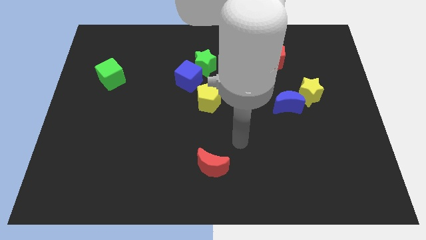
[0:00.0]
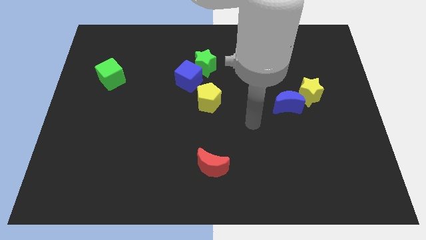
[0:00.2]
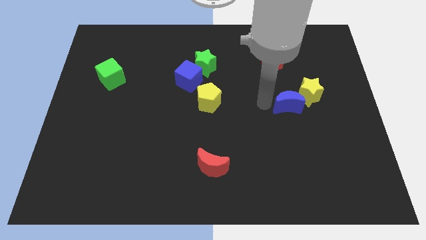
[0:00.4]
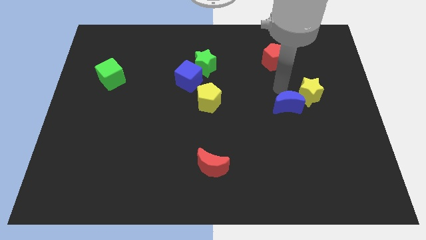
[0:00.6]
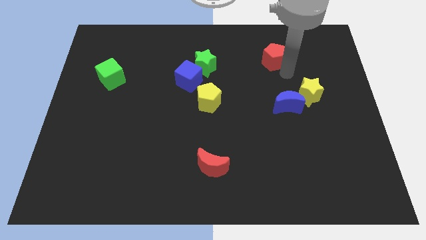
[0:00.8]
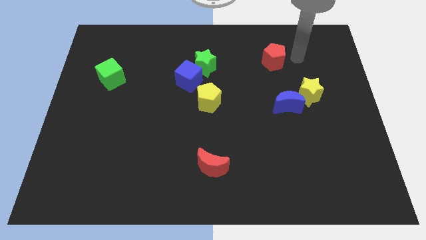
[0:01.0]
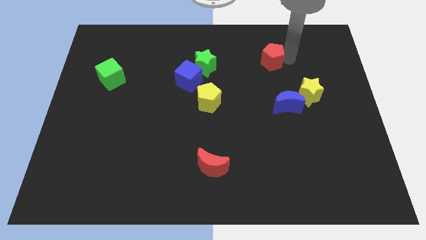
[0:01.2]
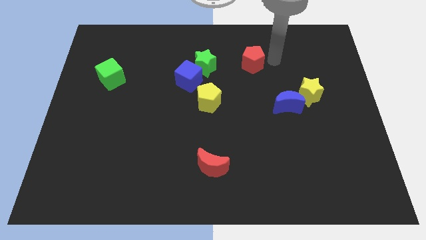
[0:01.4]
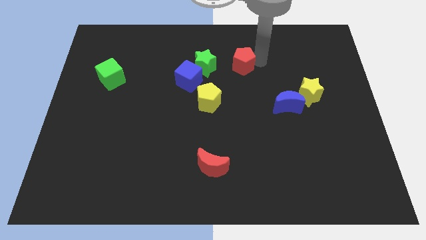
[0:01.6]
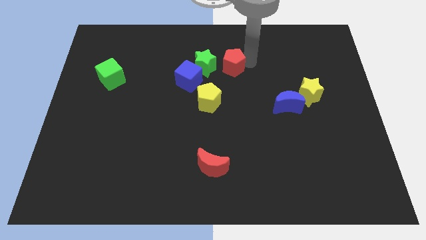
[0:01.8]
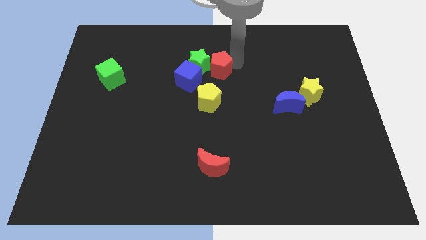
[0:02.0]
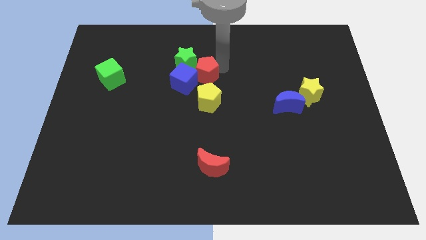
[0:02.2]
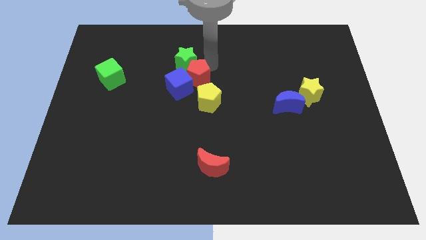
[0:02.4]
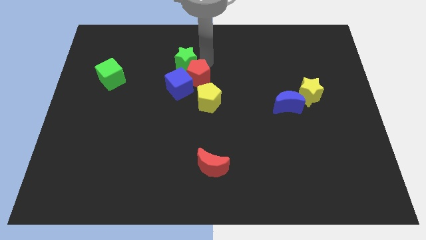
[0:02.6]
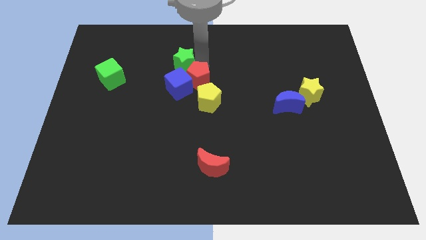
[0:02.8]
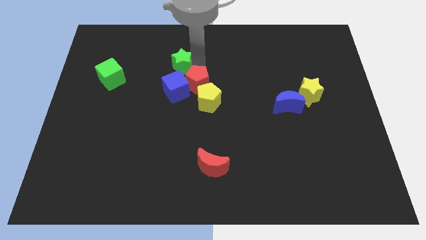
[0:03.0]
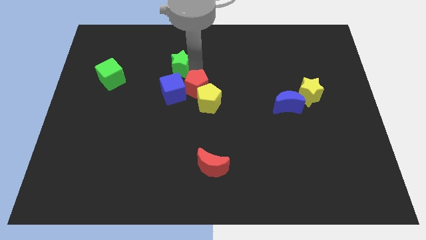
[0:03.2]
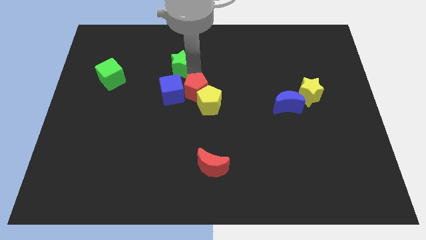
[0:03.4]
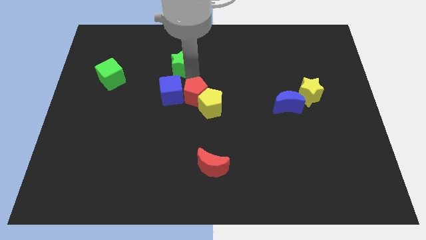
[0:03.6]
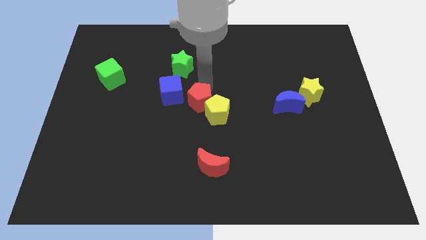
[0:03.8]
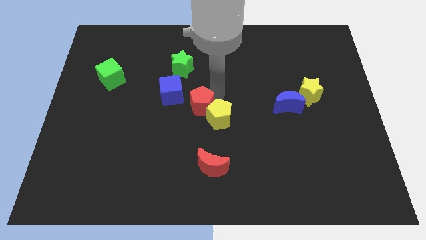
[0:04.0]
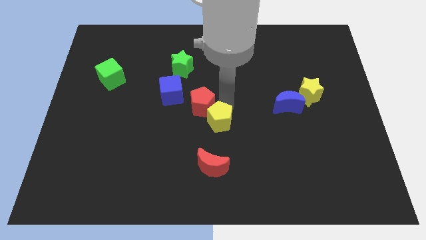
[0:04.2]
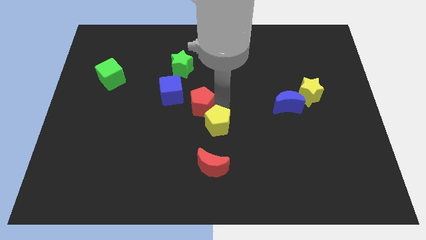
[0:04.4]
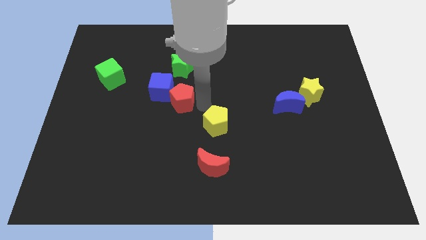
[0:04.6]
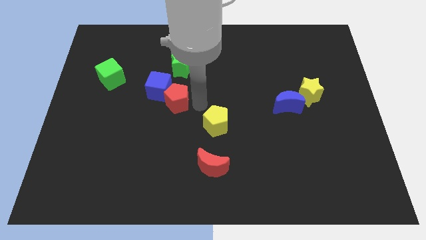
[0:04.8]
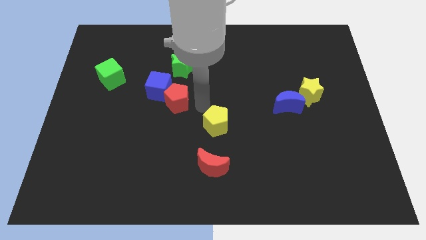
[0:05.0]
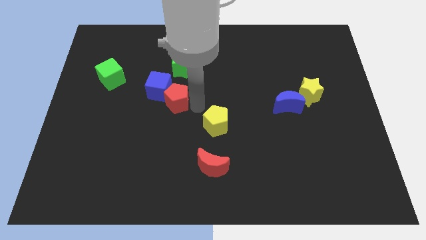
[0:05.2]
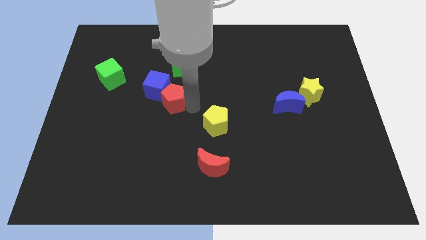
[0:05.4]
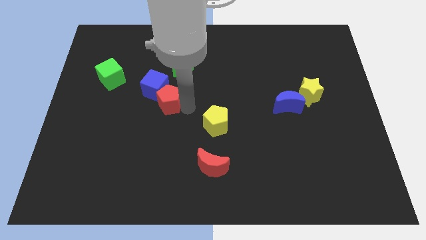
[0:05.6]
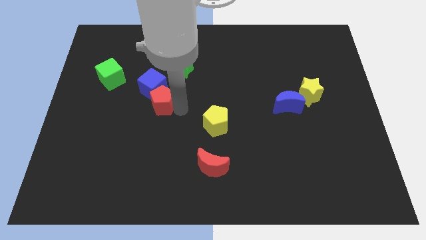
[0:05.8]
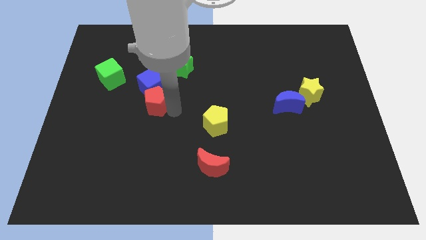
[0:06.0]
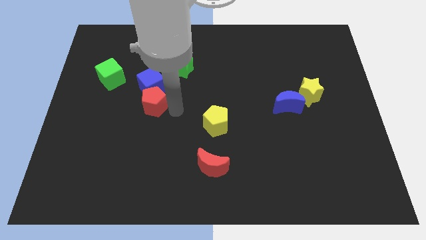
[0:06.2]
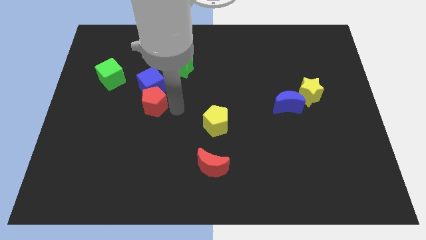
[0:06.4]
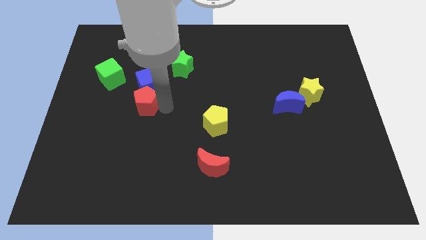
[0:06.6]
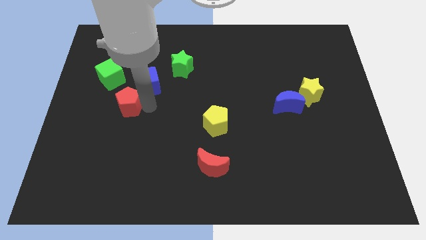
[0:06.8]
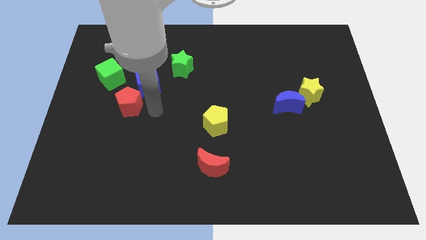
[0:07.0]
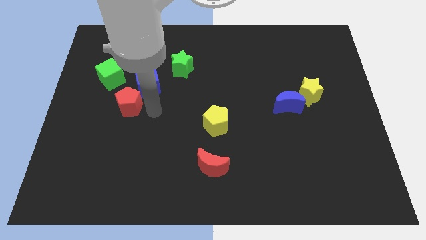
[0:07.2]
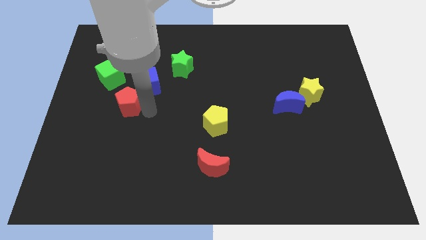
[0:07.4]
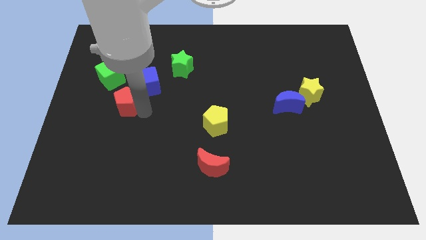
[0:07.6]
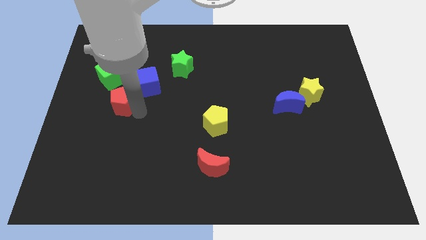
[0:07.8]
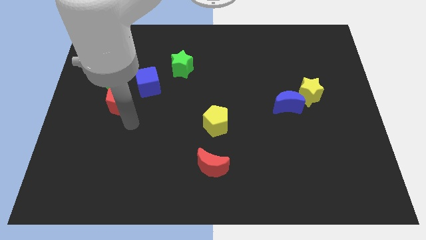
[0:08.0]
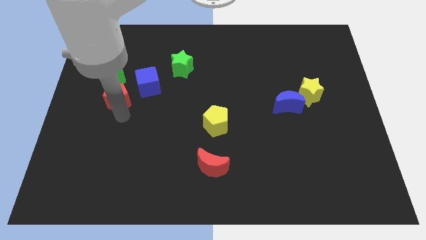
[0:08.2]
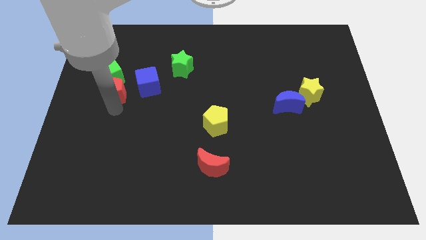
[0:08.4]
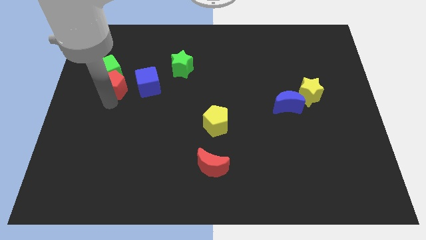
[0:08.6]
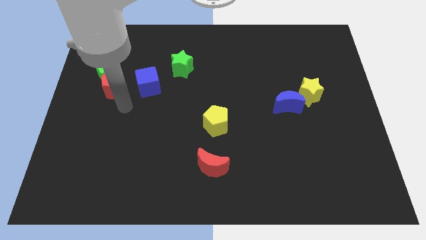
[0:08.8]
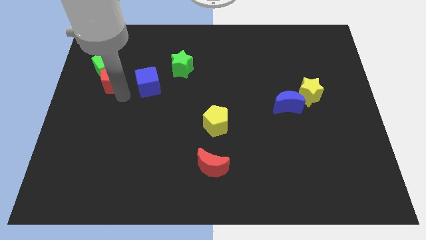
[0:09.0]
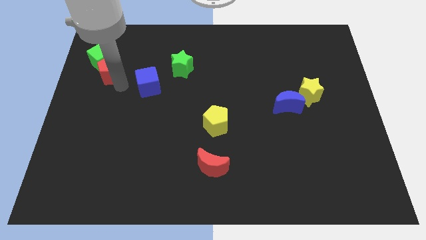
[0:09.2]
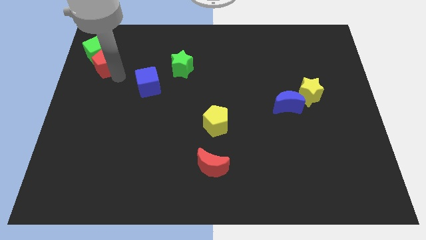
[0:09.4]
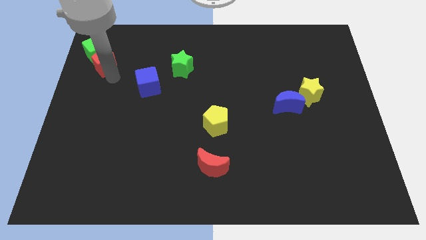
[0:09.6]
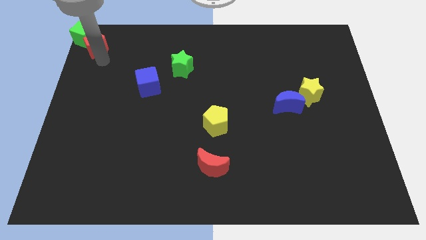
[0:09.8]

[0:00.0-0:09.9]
put the red pentagon to the top left
